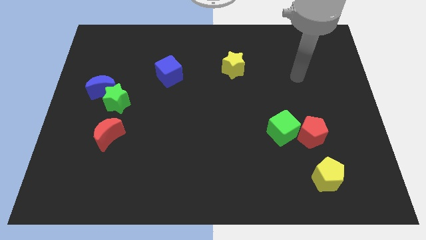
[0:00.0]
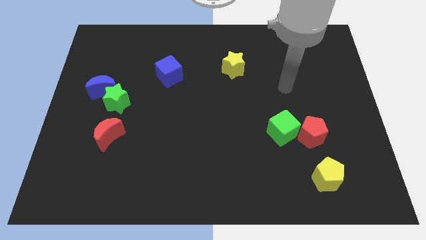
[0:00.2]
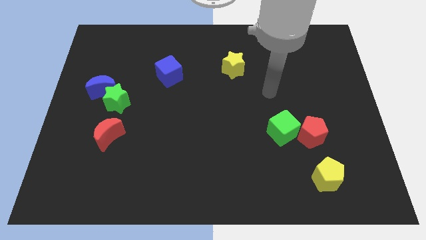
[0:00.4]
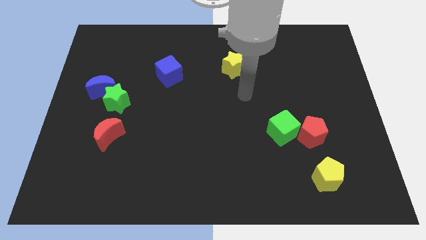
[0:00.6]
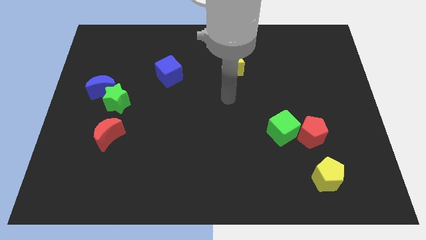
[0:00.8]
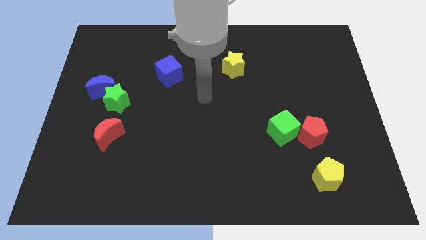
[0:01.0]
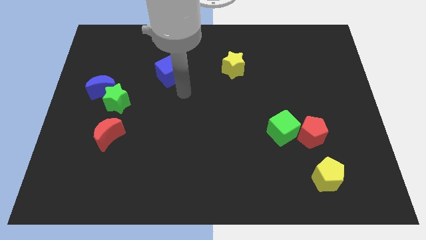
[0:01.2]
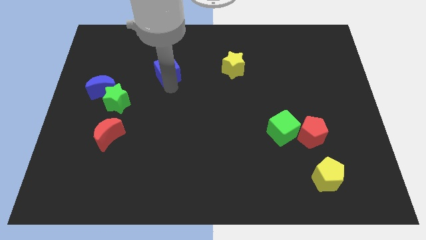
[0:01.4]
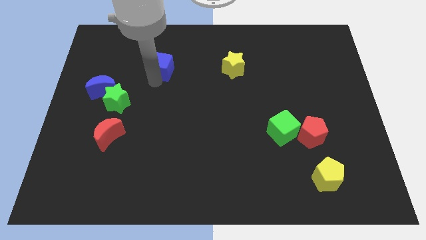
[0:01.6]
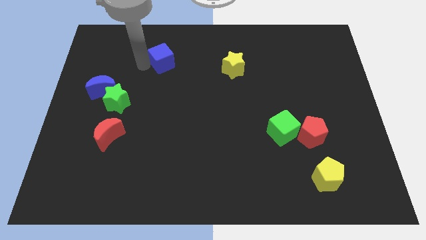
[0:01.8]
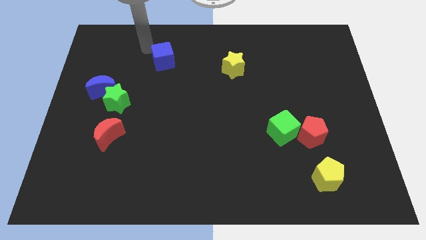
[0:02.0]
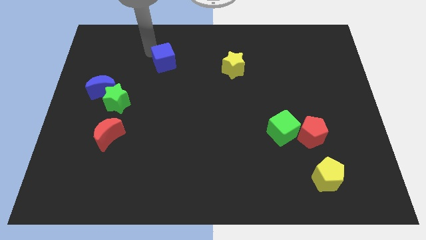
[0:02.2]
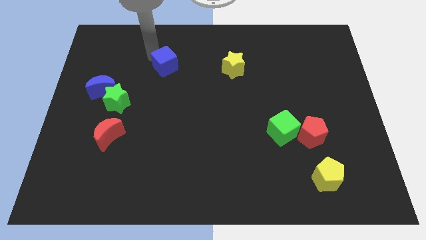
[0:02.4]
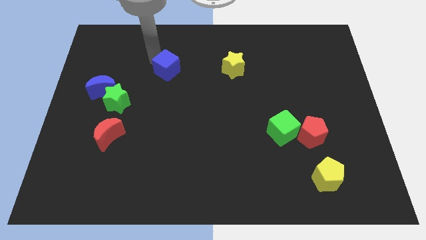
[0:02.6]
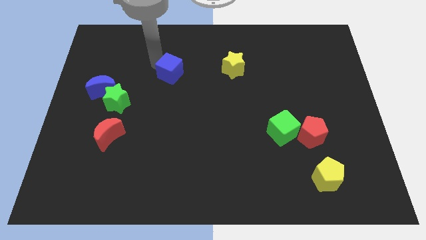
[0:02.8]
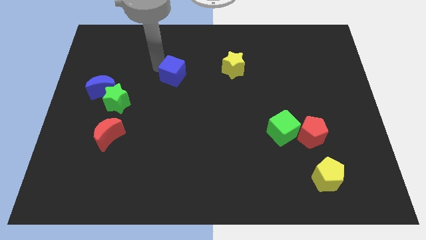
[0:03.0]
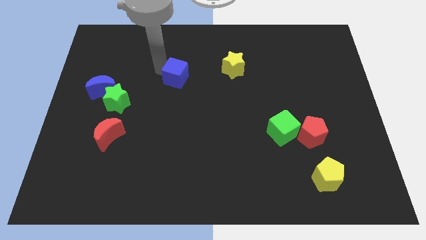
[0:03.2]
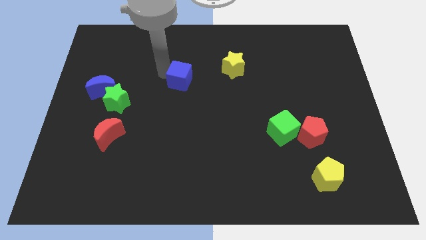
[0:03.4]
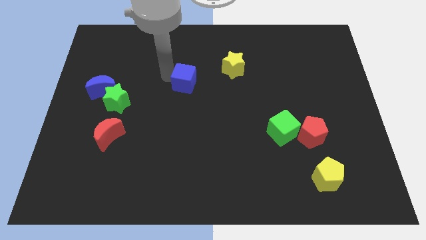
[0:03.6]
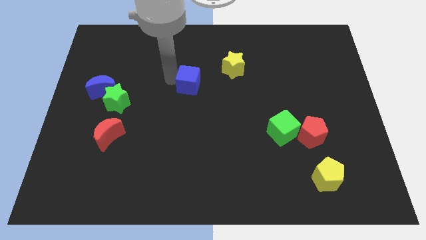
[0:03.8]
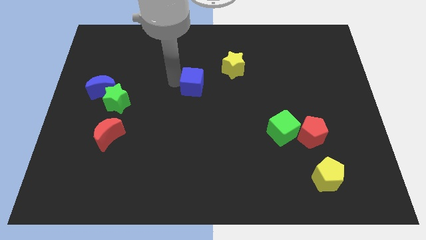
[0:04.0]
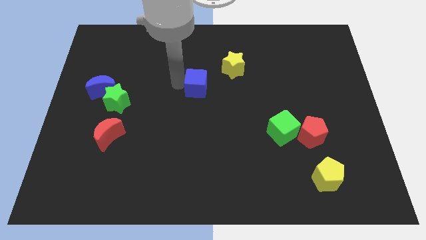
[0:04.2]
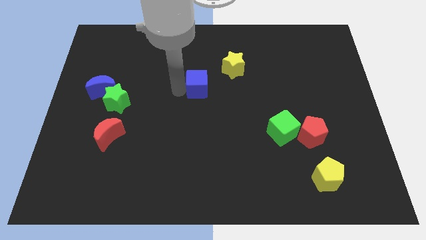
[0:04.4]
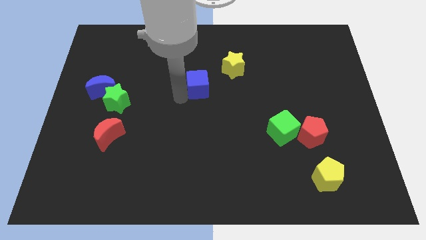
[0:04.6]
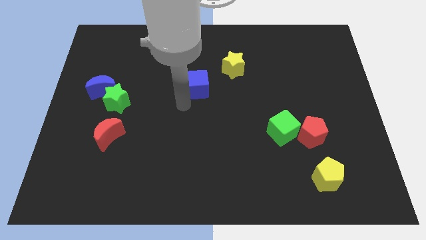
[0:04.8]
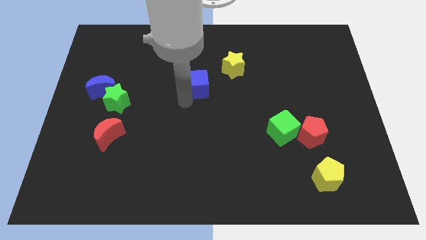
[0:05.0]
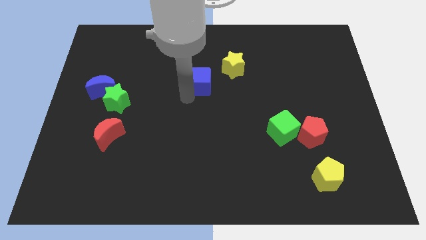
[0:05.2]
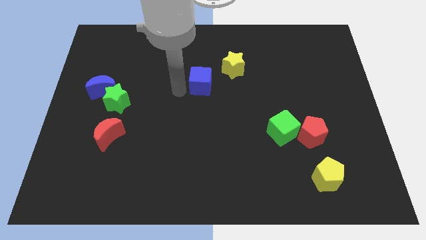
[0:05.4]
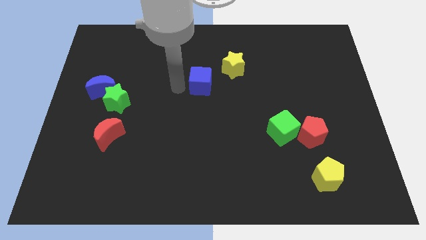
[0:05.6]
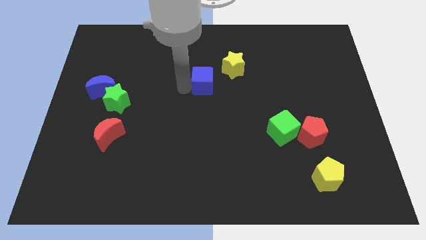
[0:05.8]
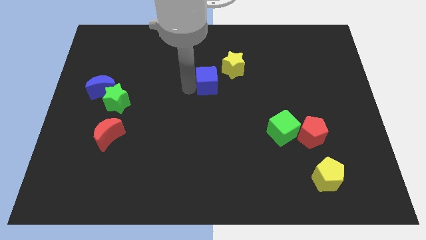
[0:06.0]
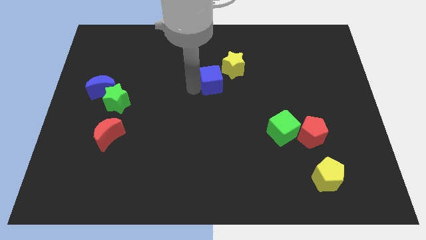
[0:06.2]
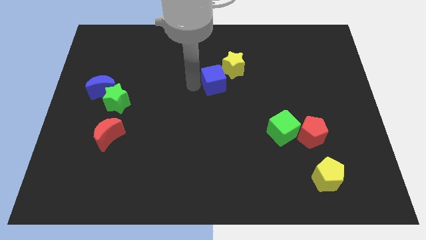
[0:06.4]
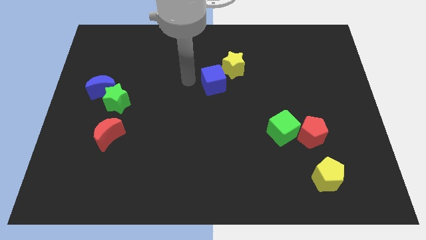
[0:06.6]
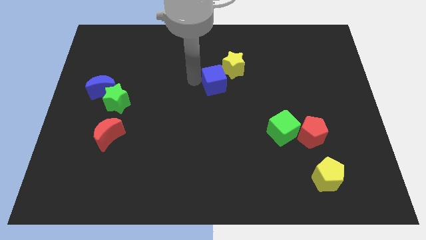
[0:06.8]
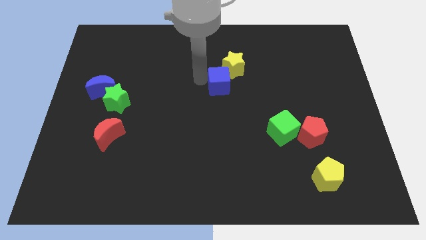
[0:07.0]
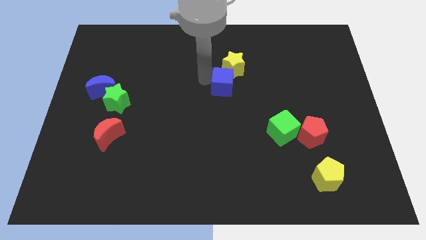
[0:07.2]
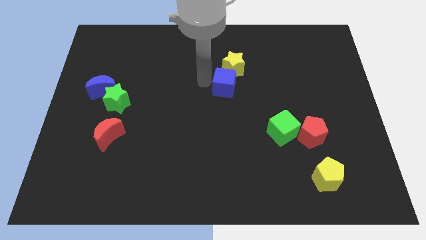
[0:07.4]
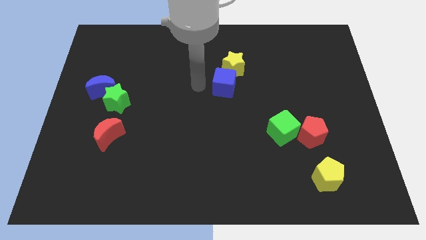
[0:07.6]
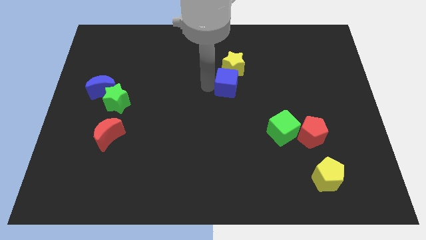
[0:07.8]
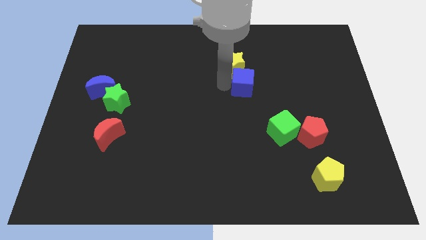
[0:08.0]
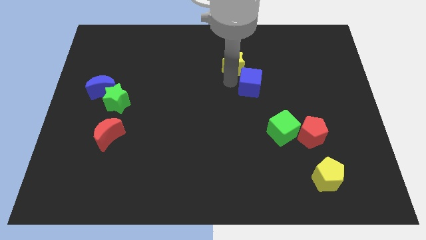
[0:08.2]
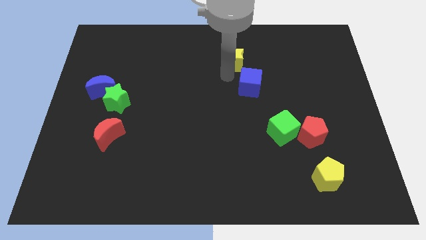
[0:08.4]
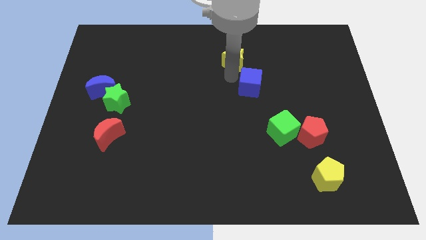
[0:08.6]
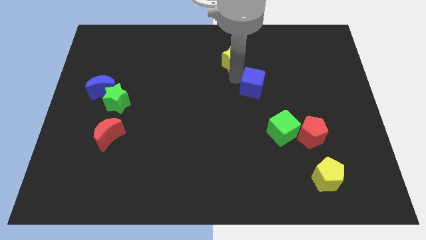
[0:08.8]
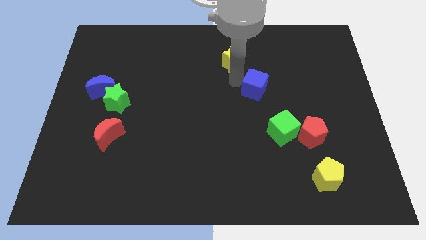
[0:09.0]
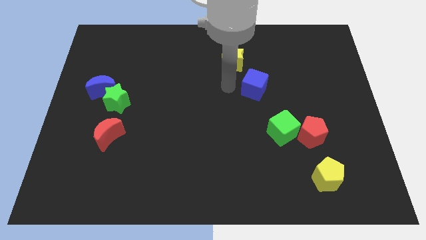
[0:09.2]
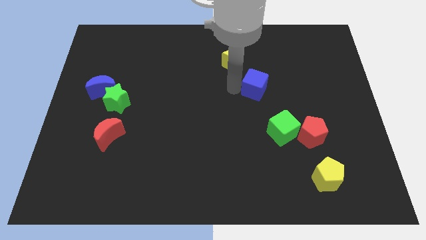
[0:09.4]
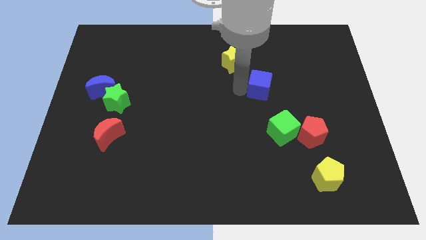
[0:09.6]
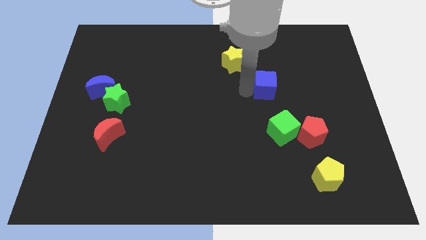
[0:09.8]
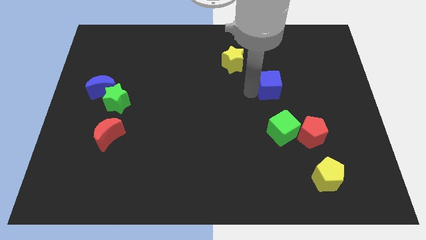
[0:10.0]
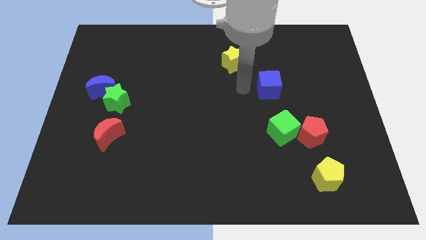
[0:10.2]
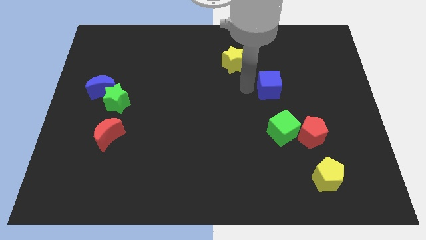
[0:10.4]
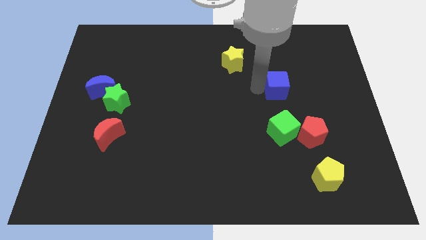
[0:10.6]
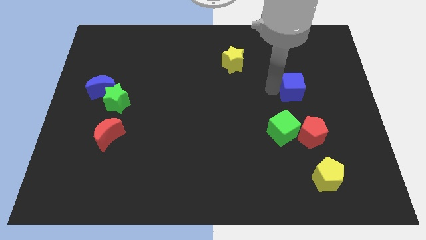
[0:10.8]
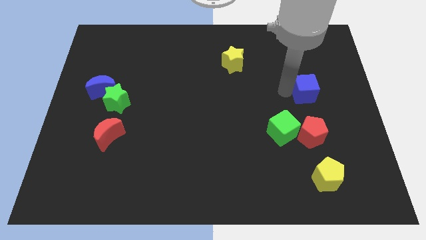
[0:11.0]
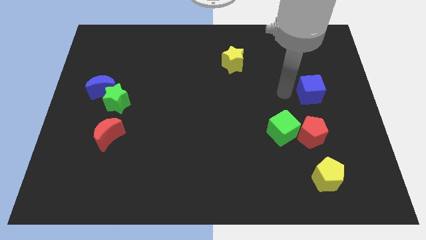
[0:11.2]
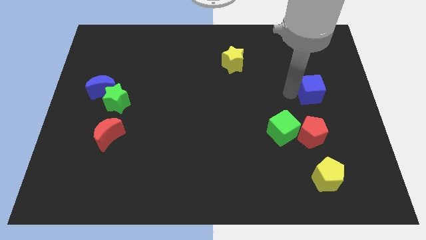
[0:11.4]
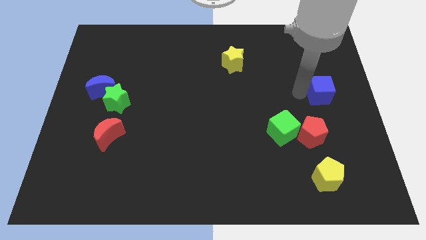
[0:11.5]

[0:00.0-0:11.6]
slide the blue cube to the right side of the board

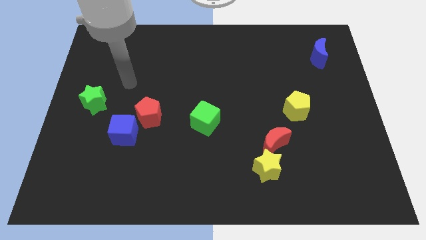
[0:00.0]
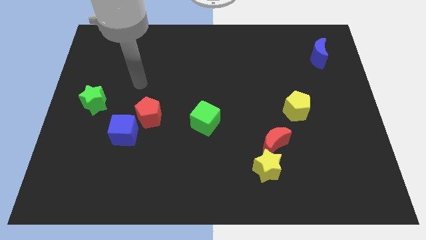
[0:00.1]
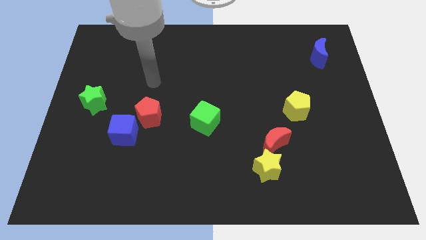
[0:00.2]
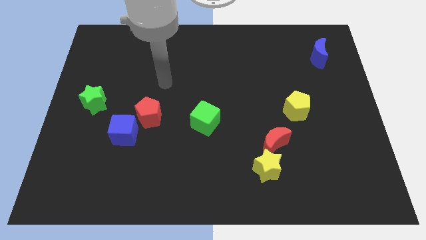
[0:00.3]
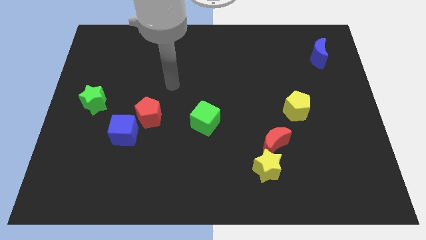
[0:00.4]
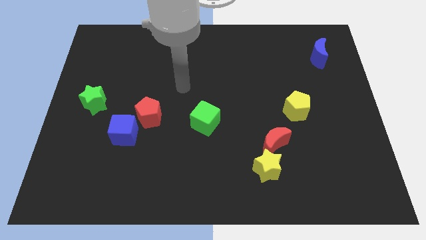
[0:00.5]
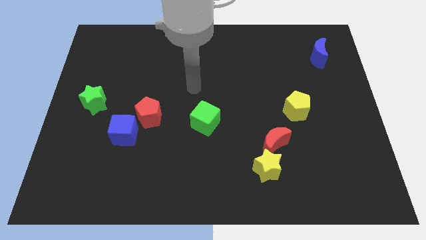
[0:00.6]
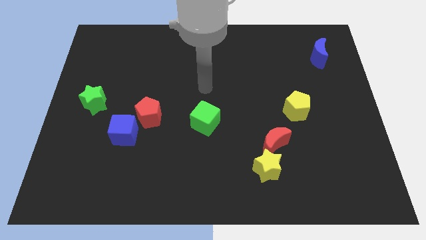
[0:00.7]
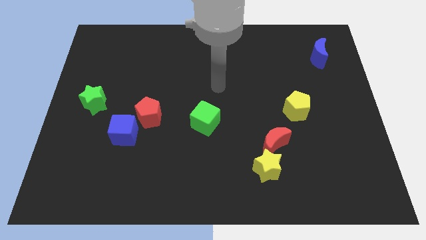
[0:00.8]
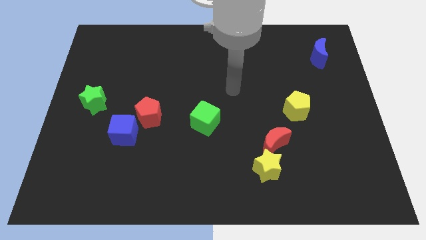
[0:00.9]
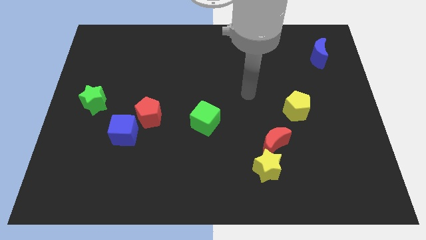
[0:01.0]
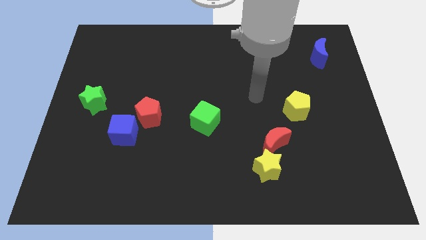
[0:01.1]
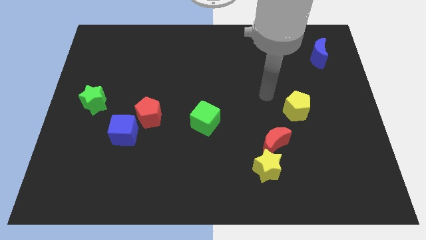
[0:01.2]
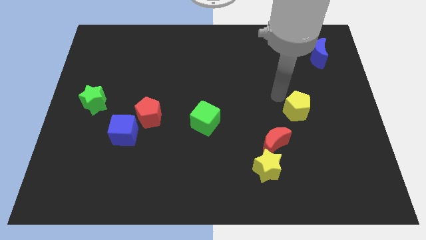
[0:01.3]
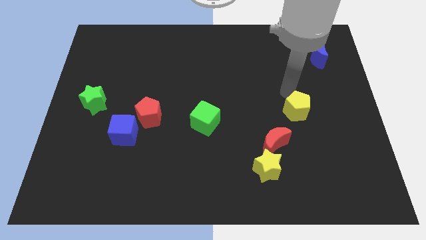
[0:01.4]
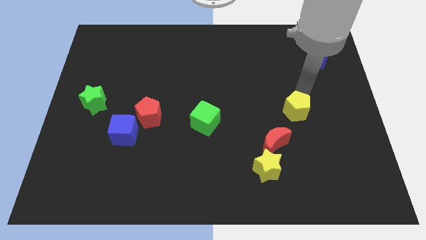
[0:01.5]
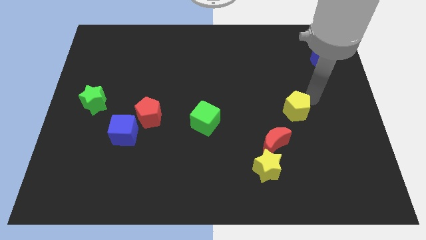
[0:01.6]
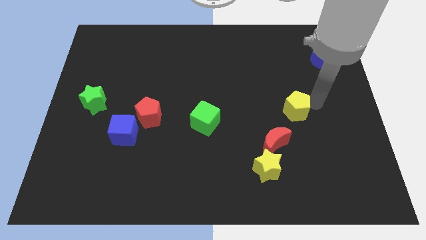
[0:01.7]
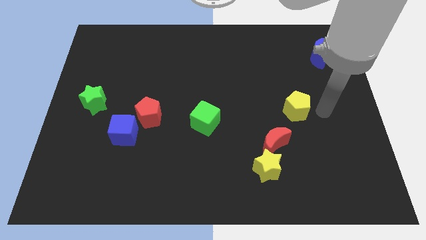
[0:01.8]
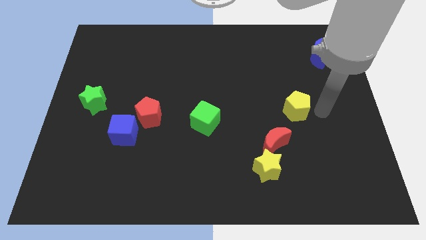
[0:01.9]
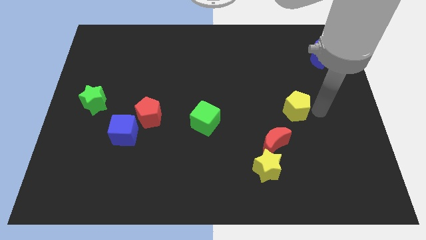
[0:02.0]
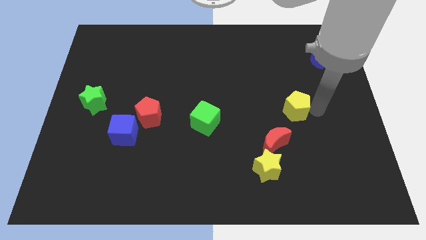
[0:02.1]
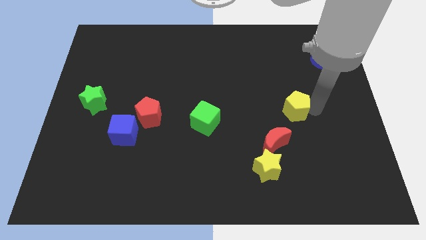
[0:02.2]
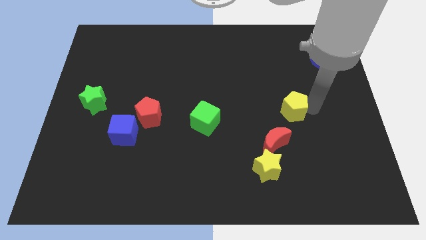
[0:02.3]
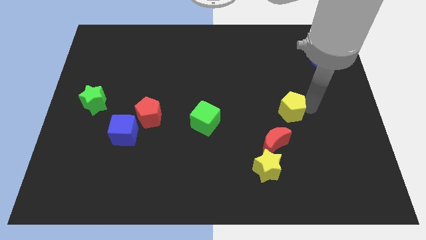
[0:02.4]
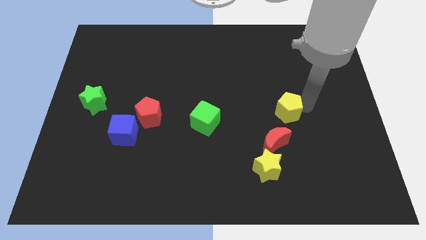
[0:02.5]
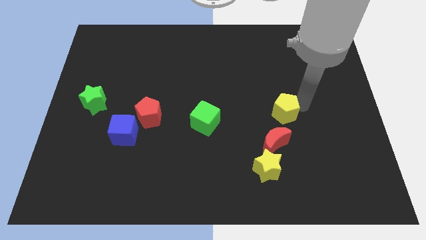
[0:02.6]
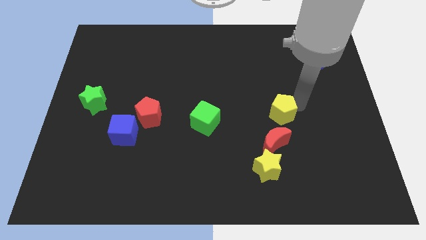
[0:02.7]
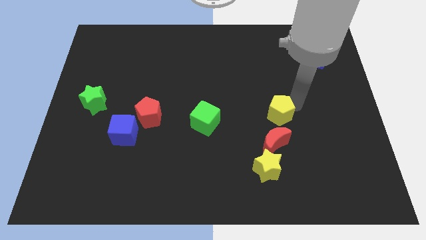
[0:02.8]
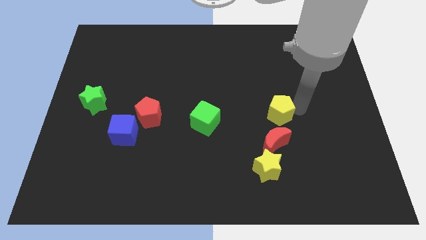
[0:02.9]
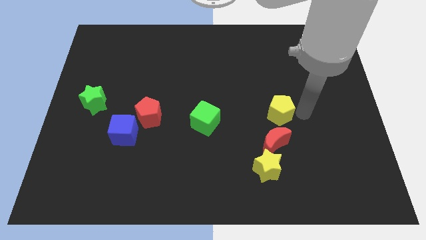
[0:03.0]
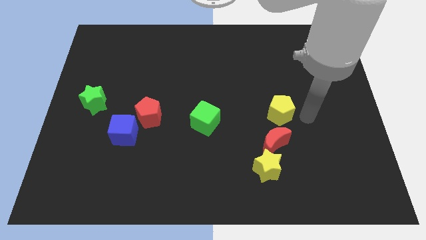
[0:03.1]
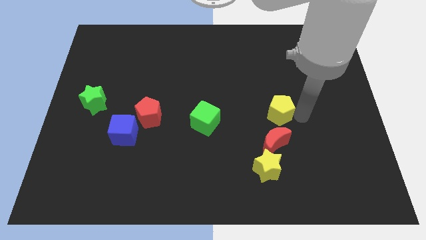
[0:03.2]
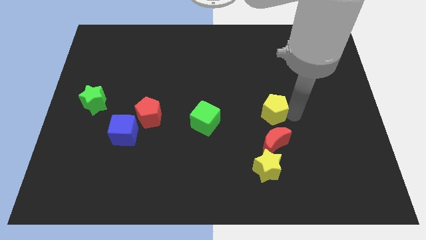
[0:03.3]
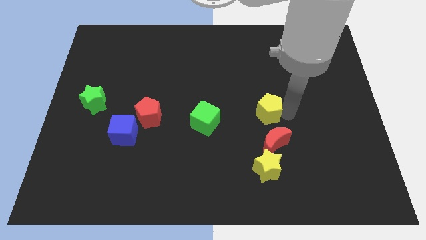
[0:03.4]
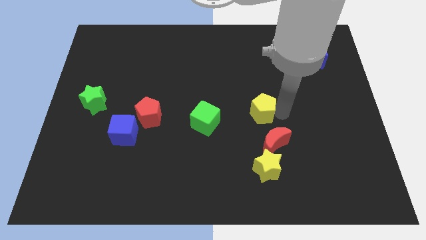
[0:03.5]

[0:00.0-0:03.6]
move the yellow pentagon to the middle of the board
